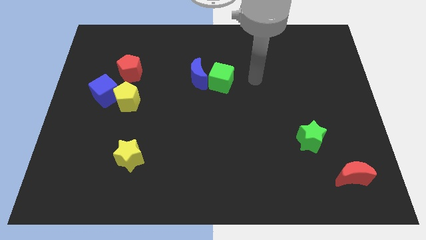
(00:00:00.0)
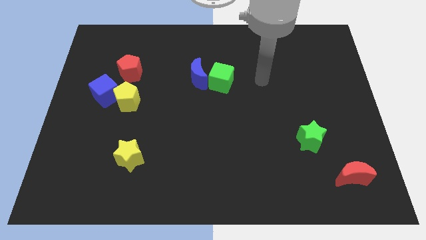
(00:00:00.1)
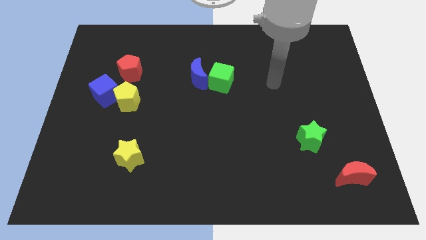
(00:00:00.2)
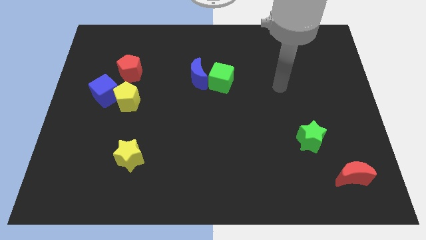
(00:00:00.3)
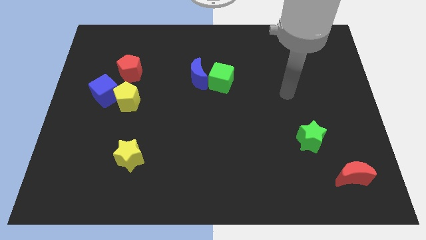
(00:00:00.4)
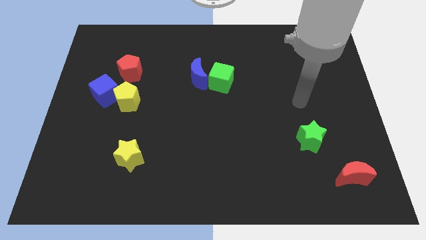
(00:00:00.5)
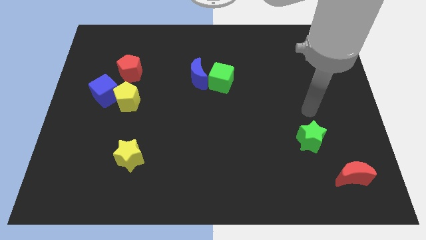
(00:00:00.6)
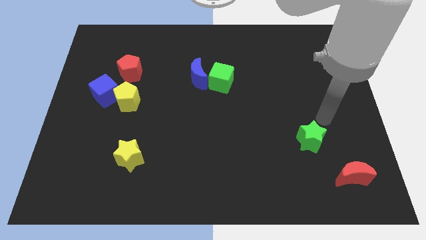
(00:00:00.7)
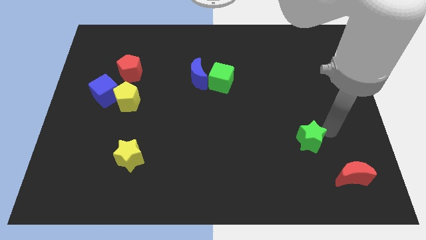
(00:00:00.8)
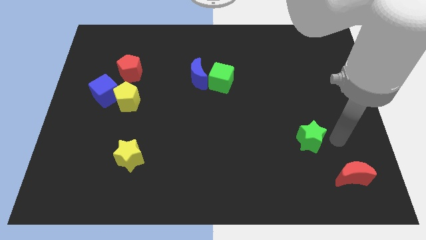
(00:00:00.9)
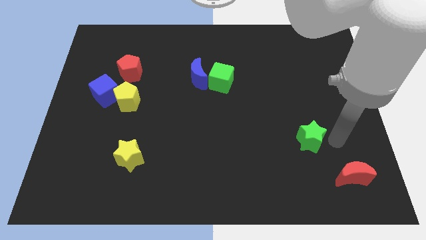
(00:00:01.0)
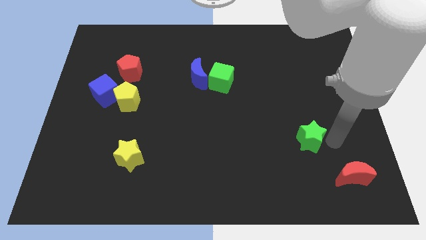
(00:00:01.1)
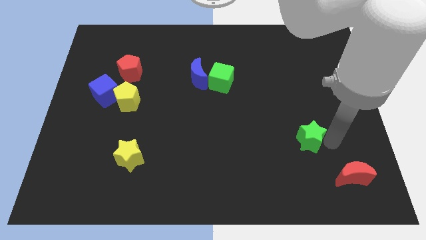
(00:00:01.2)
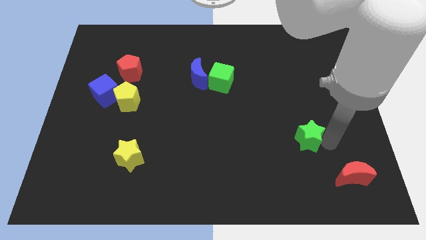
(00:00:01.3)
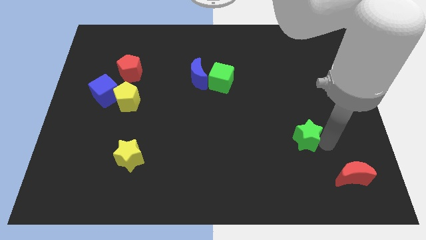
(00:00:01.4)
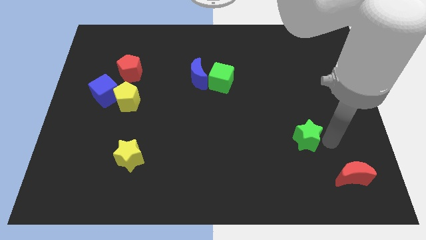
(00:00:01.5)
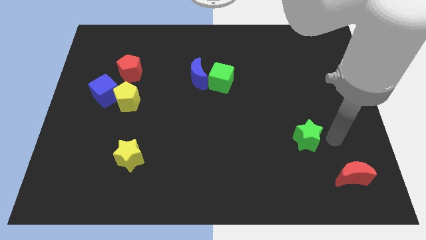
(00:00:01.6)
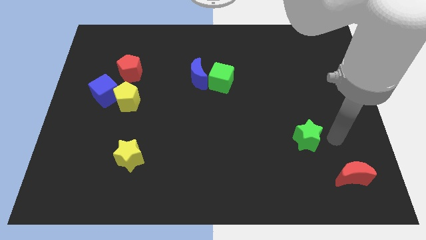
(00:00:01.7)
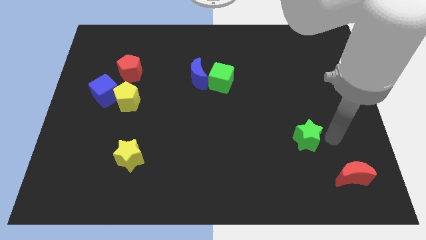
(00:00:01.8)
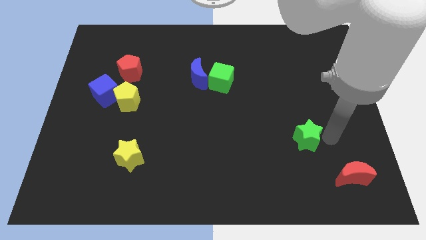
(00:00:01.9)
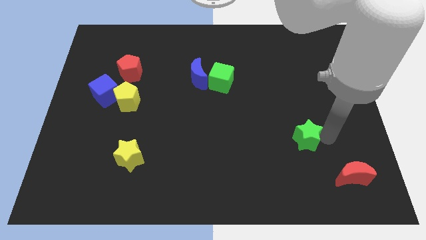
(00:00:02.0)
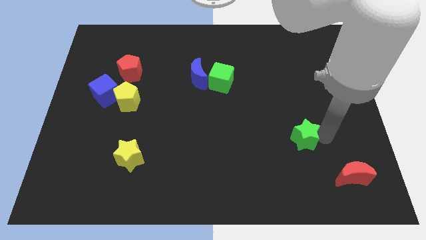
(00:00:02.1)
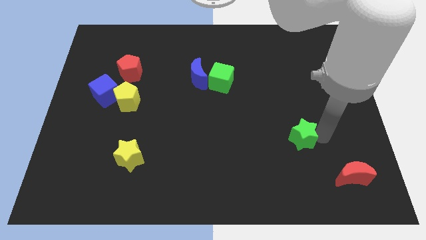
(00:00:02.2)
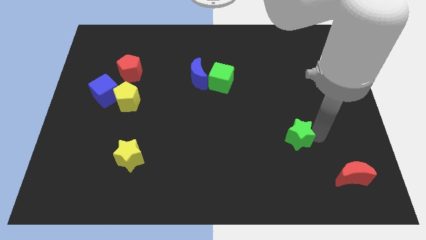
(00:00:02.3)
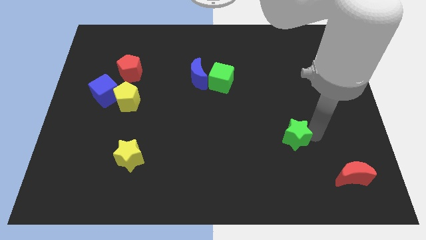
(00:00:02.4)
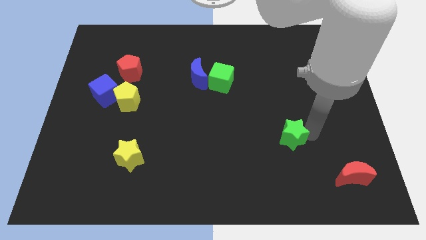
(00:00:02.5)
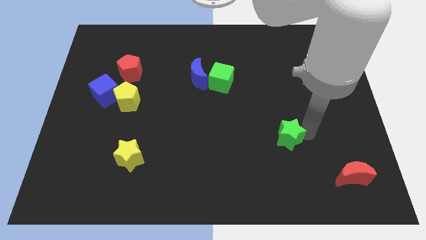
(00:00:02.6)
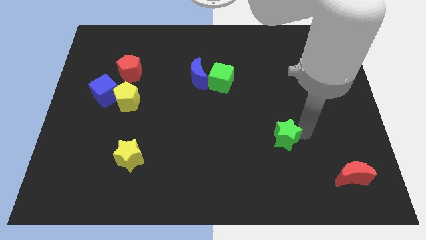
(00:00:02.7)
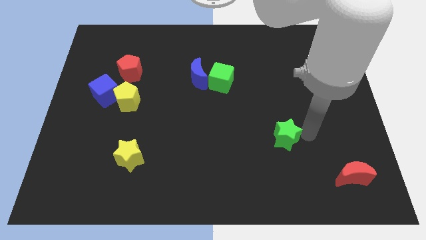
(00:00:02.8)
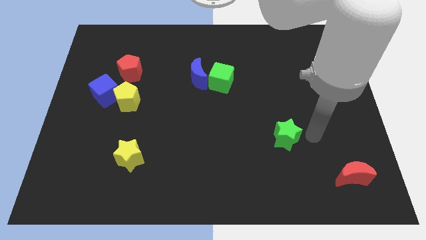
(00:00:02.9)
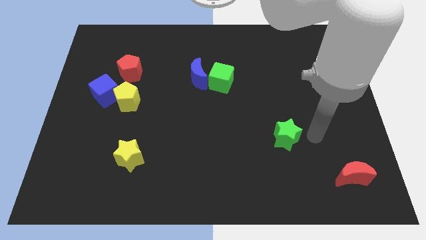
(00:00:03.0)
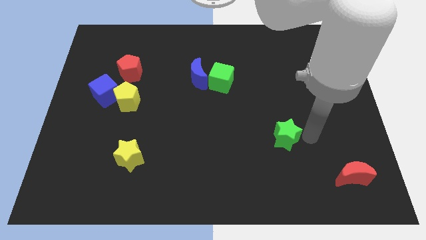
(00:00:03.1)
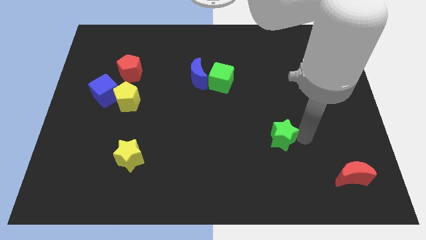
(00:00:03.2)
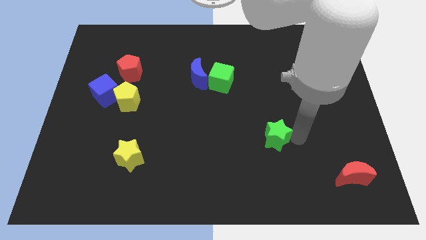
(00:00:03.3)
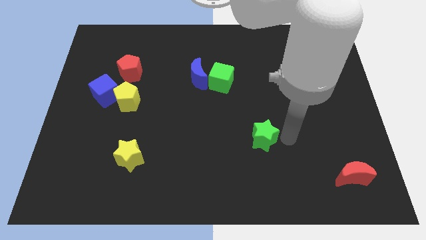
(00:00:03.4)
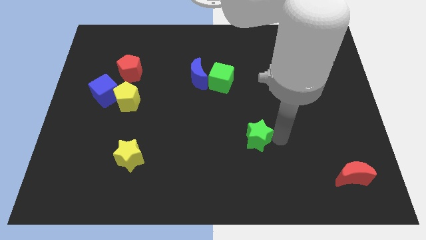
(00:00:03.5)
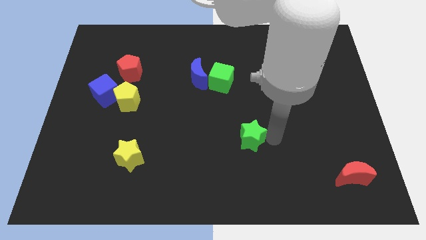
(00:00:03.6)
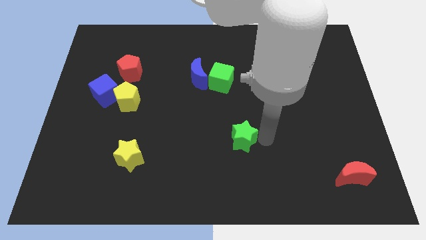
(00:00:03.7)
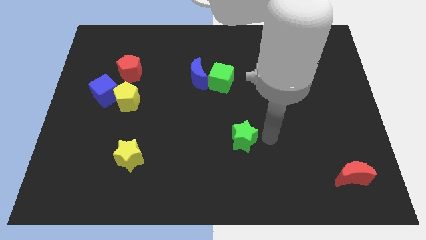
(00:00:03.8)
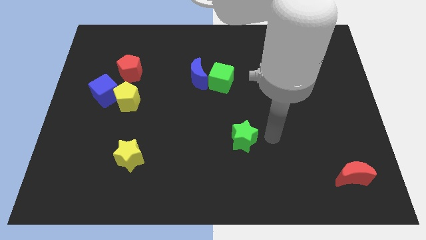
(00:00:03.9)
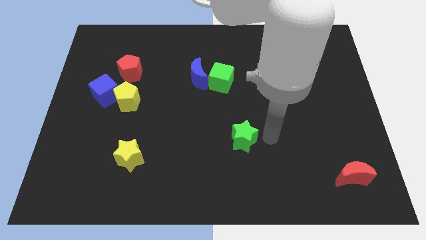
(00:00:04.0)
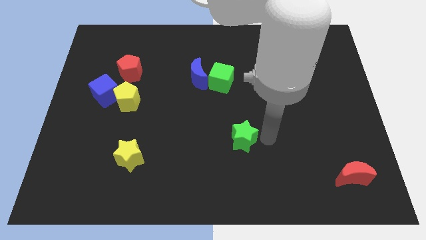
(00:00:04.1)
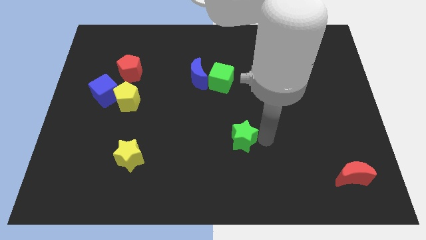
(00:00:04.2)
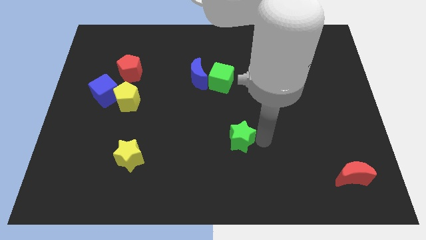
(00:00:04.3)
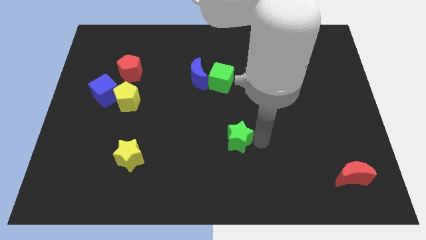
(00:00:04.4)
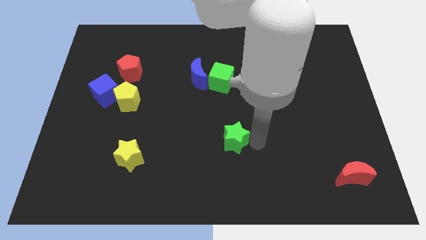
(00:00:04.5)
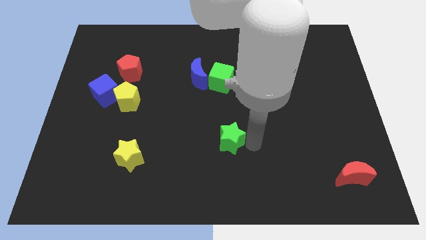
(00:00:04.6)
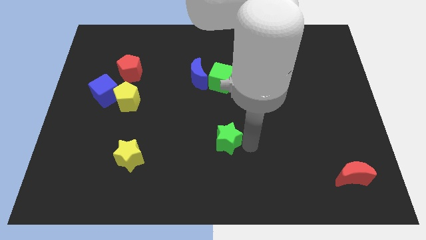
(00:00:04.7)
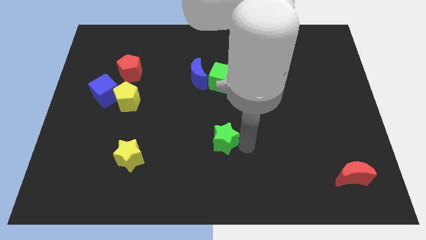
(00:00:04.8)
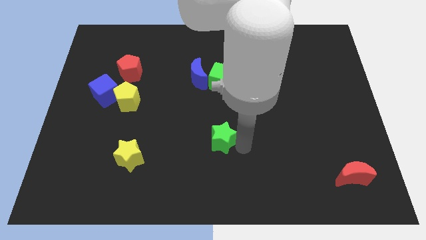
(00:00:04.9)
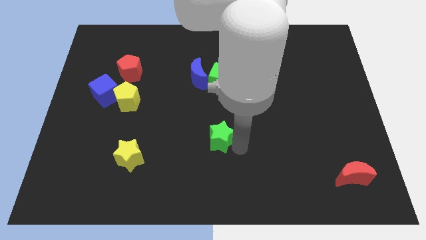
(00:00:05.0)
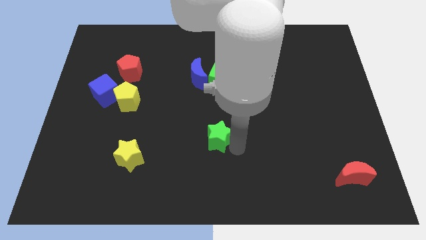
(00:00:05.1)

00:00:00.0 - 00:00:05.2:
slide the green star to the left

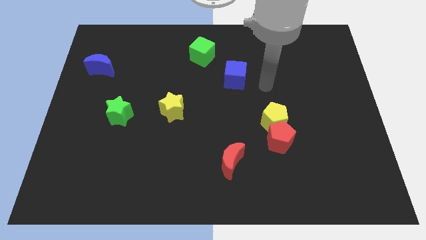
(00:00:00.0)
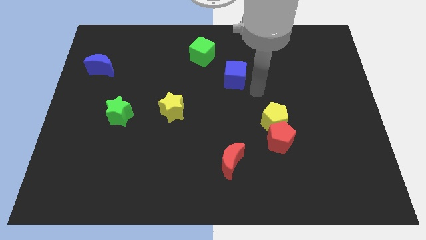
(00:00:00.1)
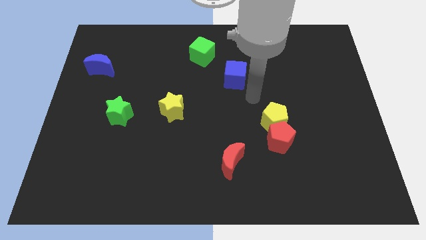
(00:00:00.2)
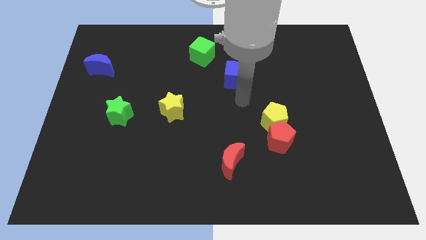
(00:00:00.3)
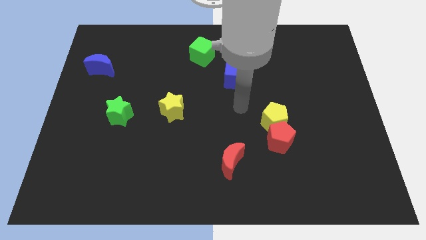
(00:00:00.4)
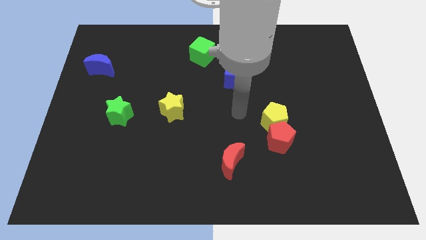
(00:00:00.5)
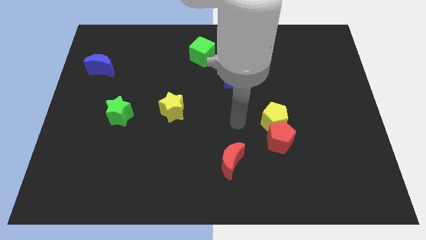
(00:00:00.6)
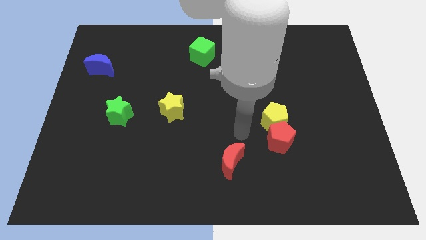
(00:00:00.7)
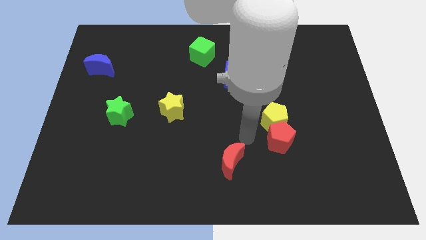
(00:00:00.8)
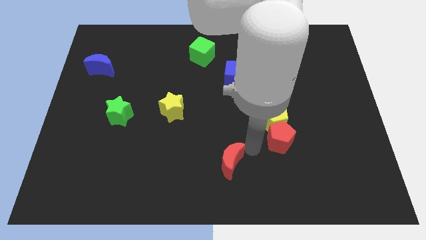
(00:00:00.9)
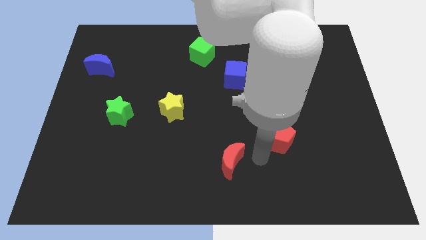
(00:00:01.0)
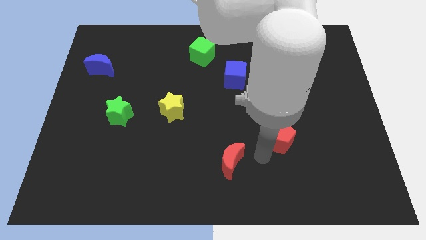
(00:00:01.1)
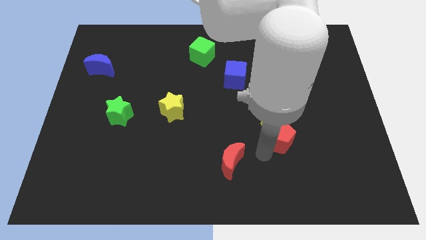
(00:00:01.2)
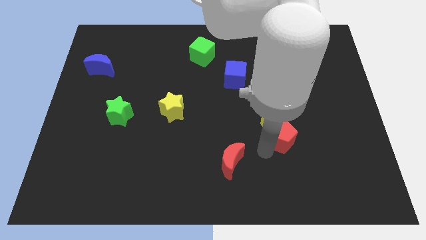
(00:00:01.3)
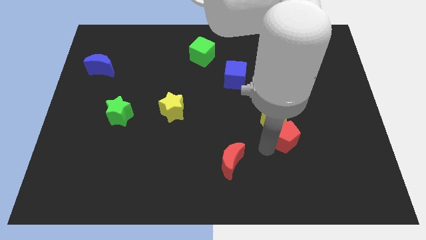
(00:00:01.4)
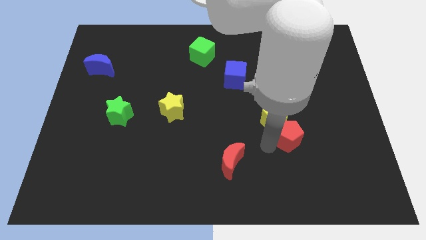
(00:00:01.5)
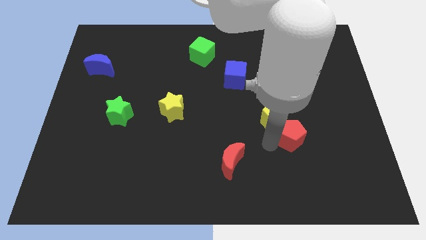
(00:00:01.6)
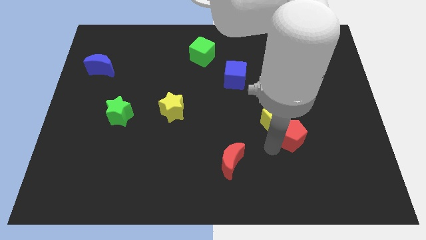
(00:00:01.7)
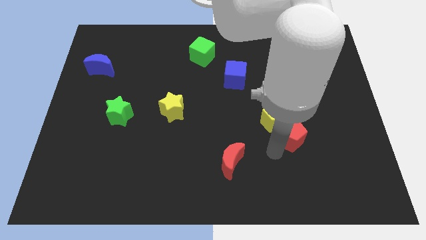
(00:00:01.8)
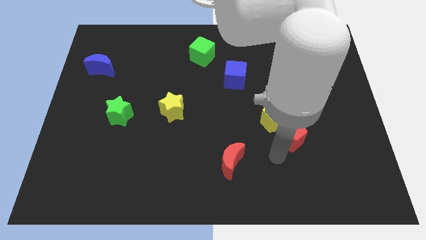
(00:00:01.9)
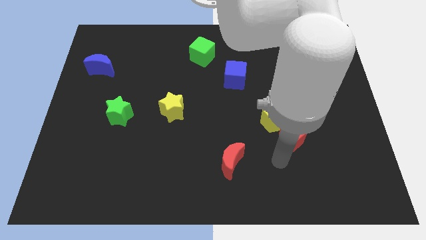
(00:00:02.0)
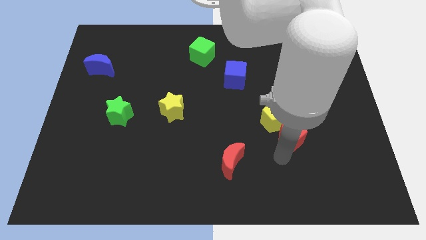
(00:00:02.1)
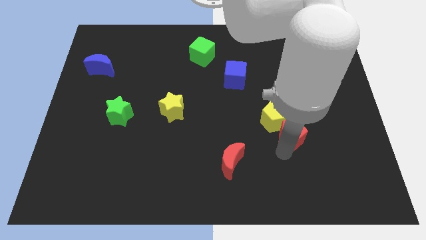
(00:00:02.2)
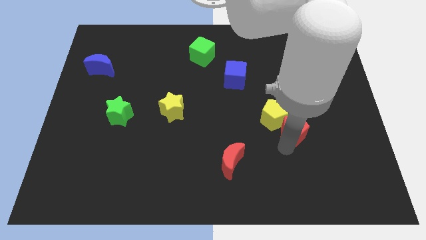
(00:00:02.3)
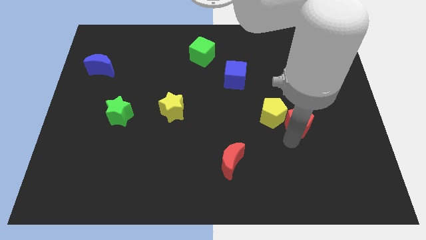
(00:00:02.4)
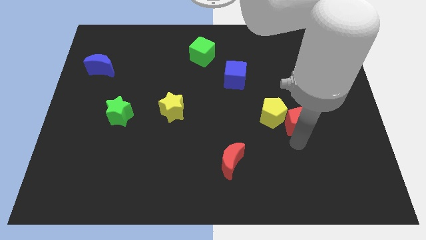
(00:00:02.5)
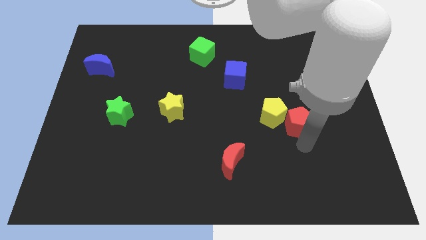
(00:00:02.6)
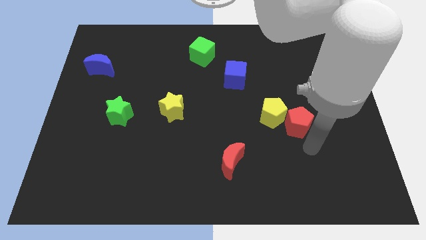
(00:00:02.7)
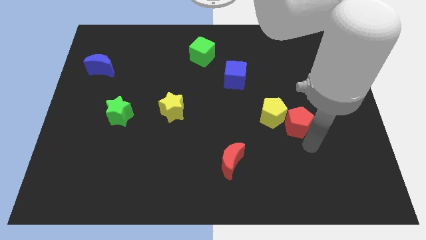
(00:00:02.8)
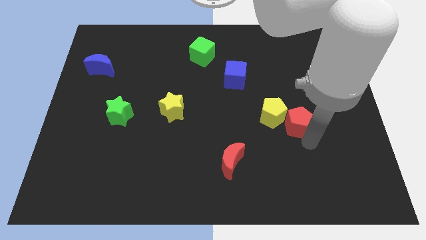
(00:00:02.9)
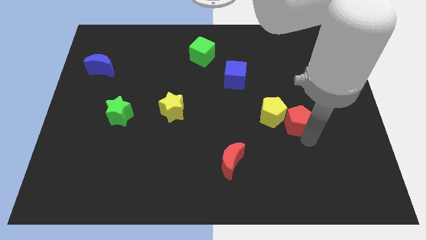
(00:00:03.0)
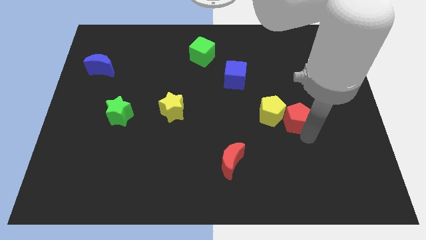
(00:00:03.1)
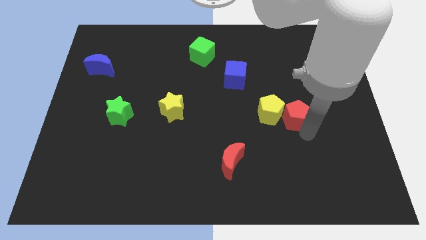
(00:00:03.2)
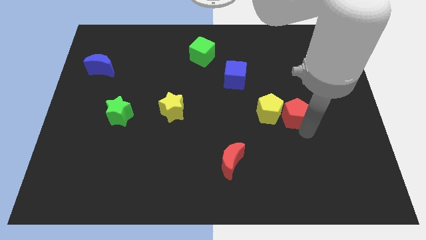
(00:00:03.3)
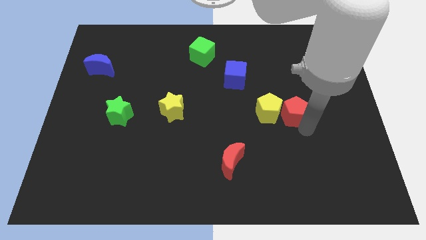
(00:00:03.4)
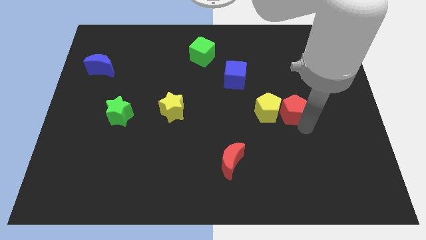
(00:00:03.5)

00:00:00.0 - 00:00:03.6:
slide the red pentagon slightly upwards
